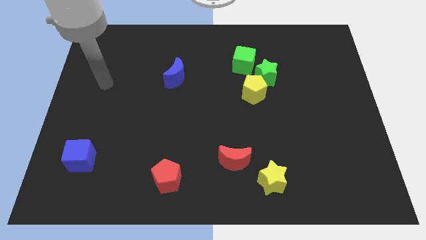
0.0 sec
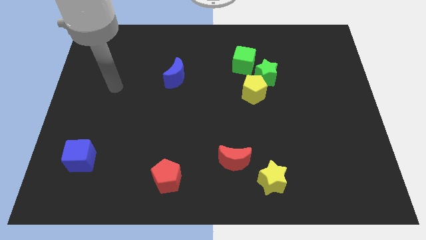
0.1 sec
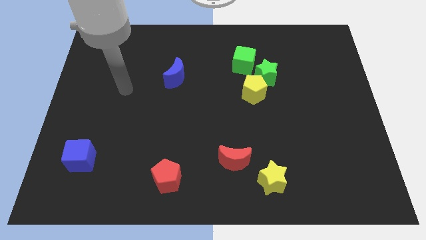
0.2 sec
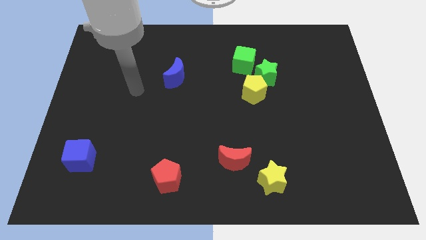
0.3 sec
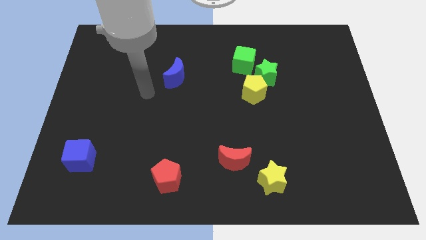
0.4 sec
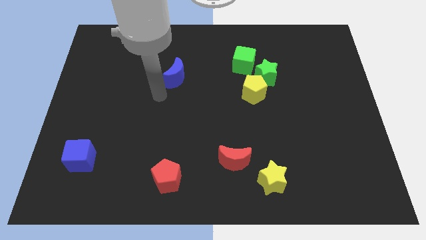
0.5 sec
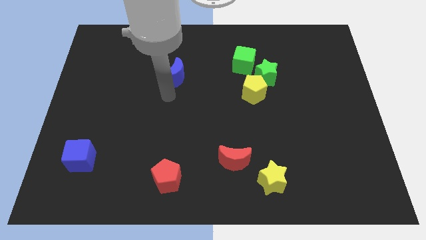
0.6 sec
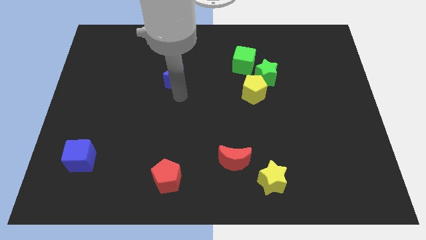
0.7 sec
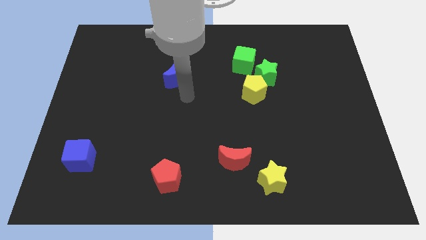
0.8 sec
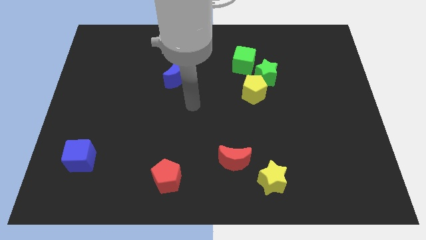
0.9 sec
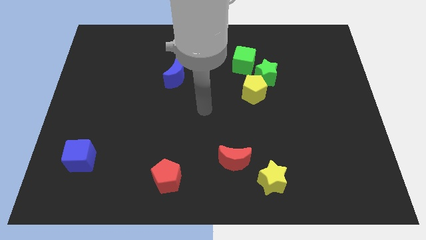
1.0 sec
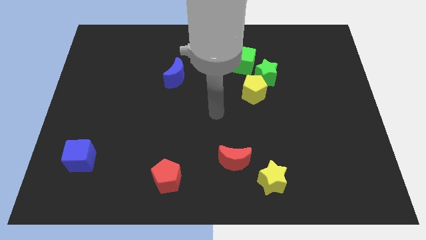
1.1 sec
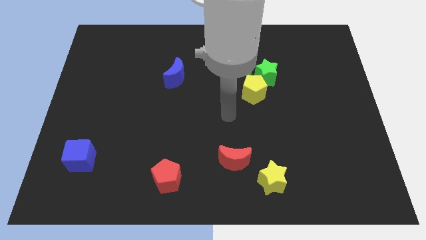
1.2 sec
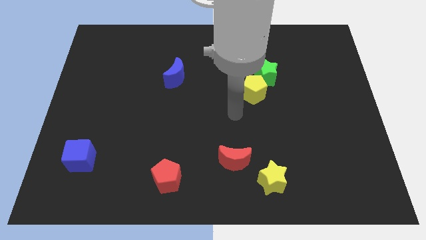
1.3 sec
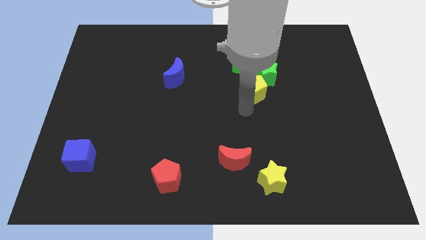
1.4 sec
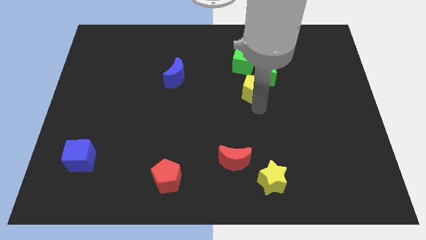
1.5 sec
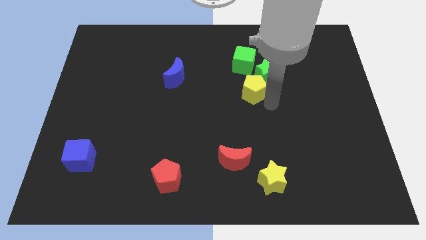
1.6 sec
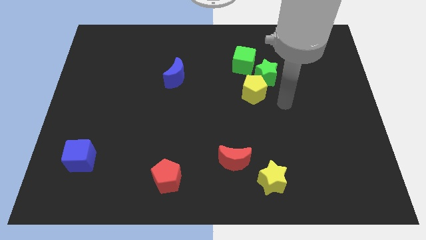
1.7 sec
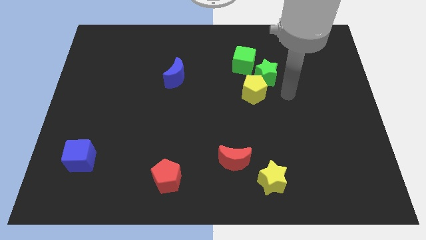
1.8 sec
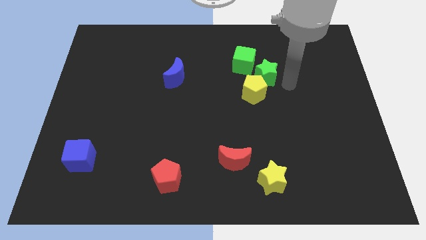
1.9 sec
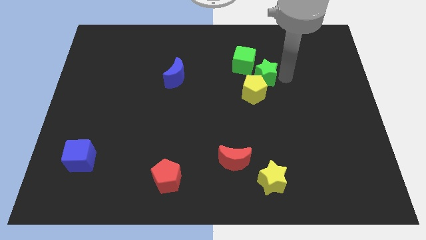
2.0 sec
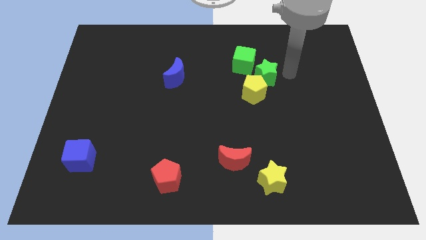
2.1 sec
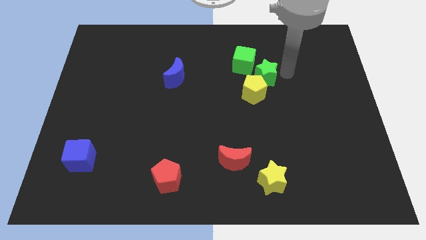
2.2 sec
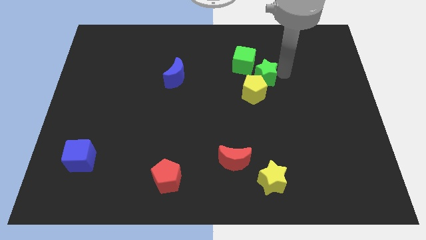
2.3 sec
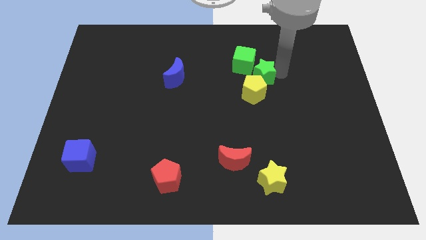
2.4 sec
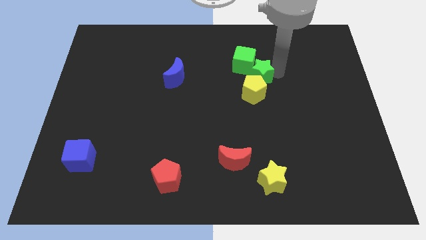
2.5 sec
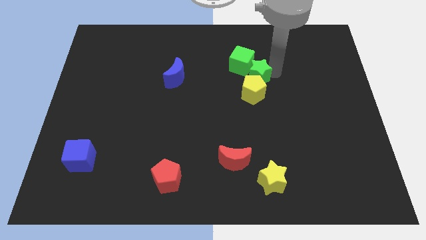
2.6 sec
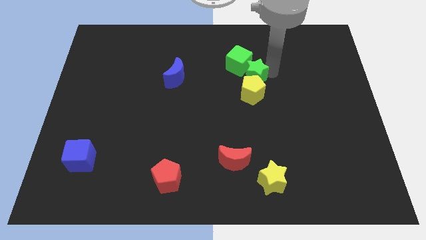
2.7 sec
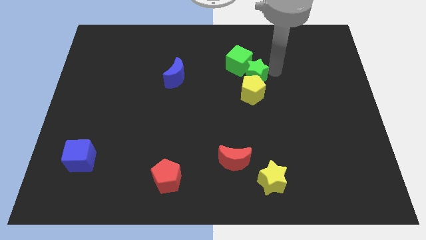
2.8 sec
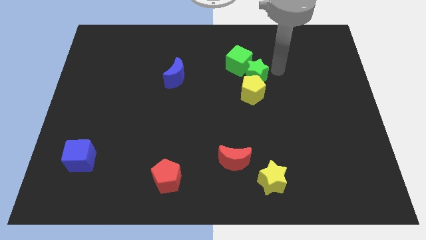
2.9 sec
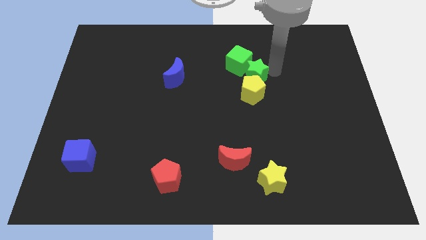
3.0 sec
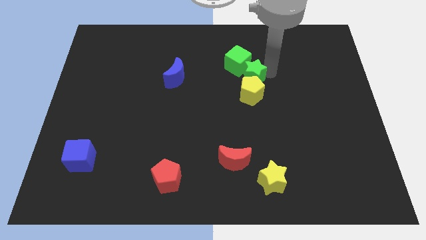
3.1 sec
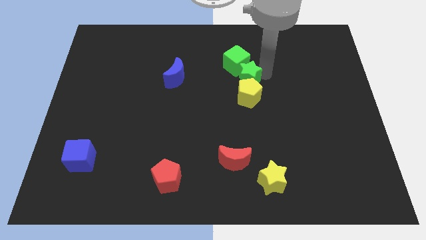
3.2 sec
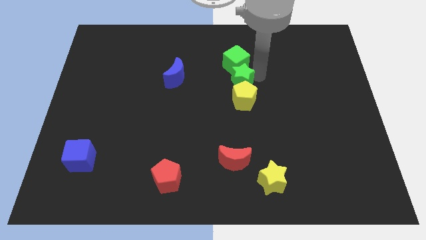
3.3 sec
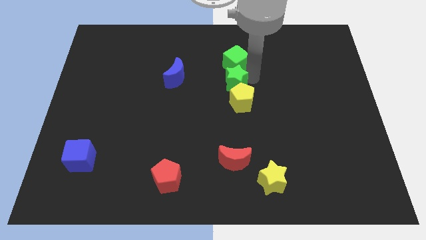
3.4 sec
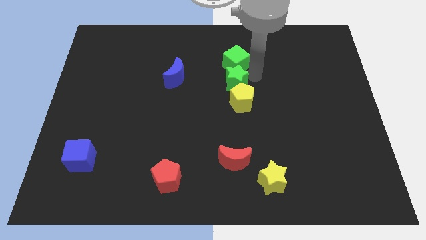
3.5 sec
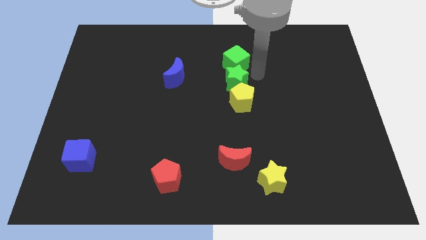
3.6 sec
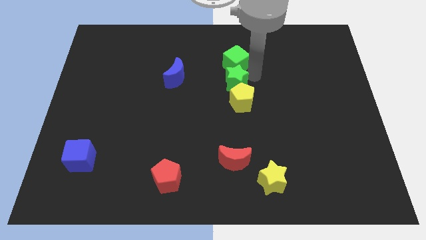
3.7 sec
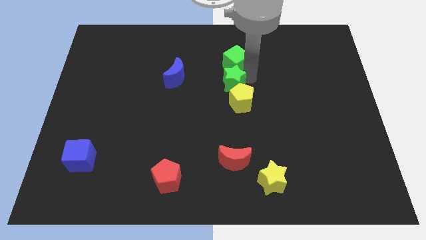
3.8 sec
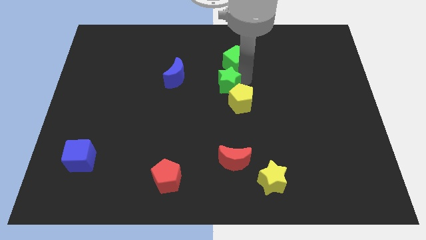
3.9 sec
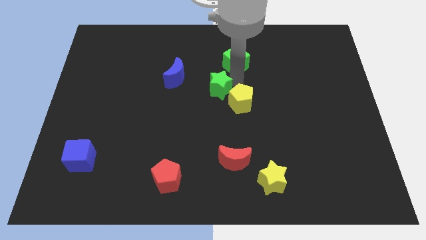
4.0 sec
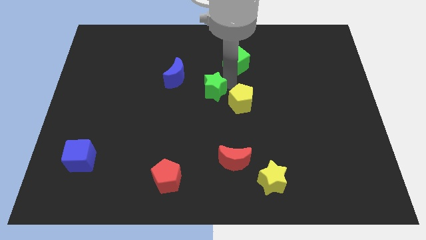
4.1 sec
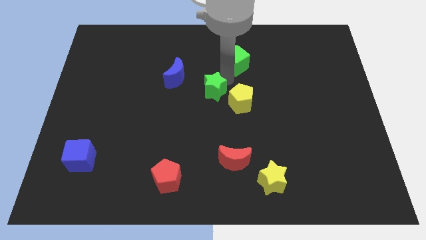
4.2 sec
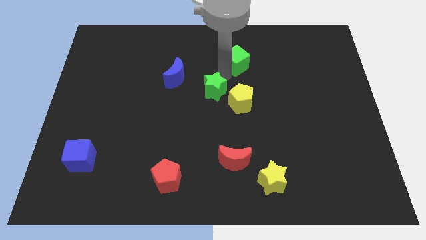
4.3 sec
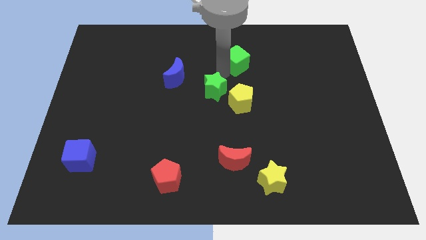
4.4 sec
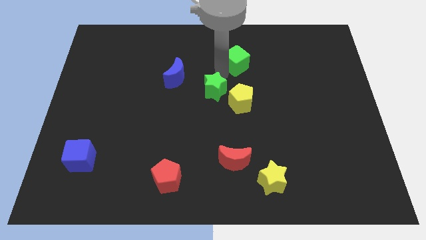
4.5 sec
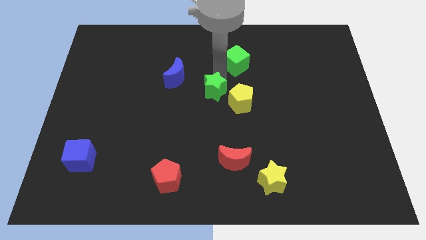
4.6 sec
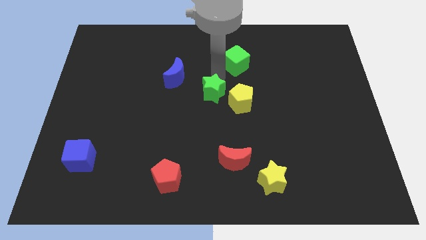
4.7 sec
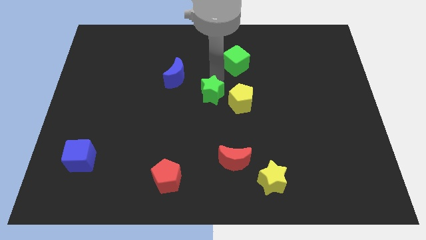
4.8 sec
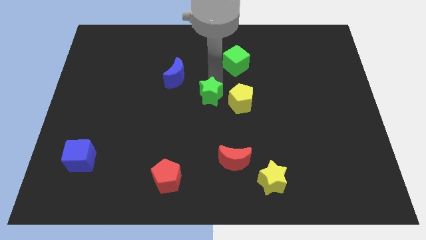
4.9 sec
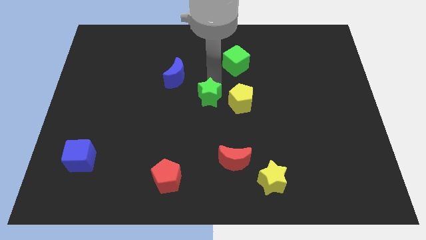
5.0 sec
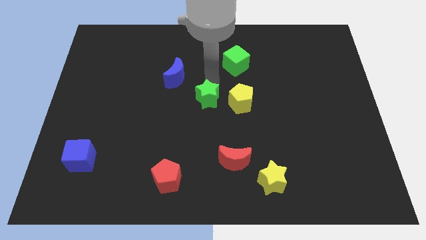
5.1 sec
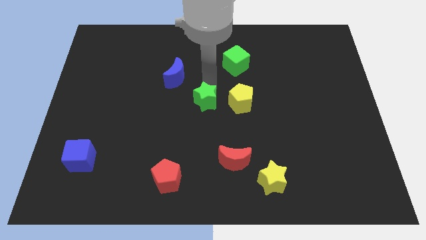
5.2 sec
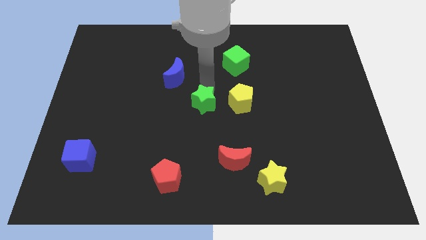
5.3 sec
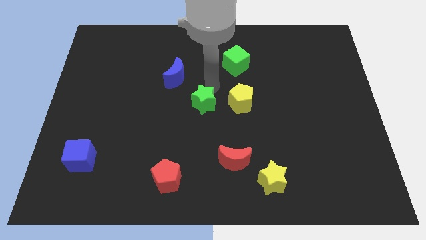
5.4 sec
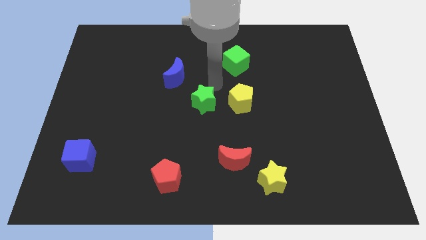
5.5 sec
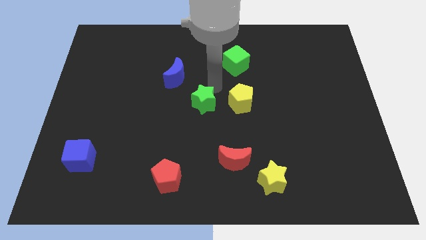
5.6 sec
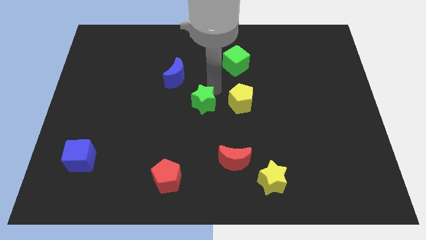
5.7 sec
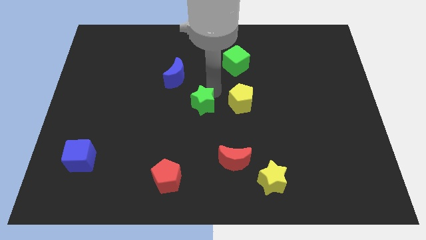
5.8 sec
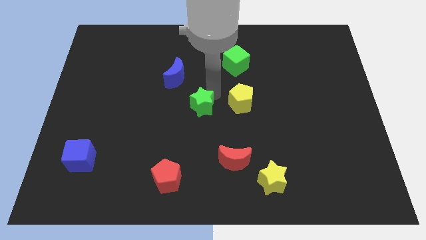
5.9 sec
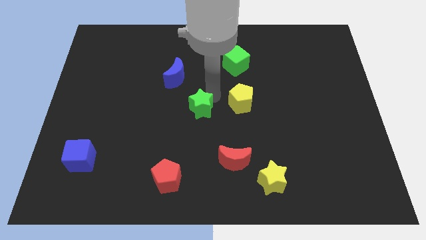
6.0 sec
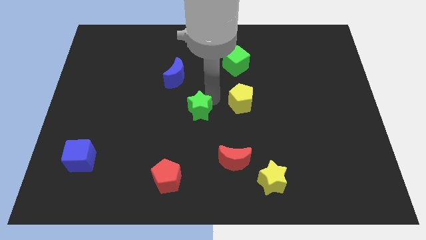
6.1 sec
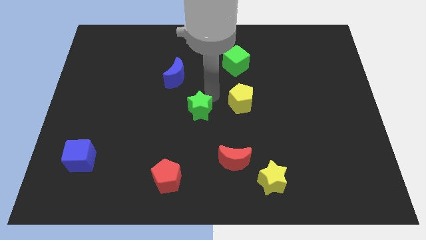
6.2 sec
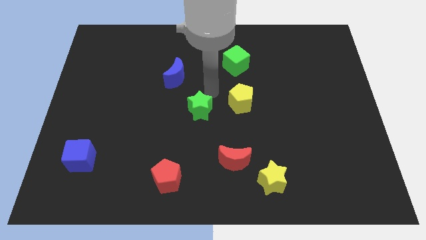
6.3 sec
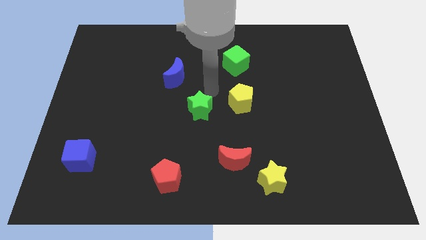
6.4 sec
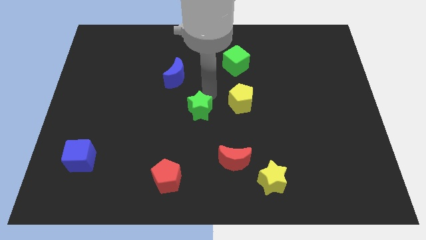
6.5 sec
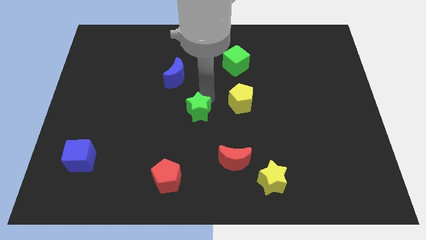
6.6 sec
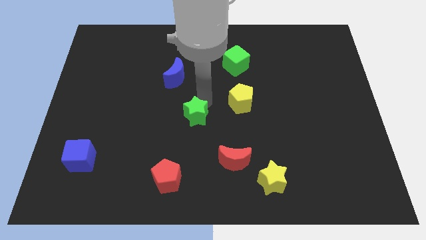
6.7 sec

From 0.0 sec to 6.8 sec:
push the green star down and to the left

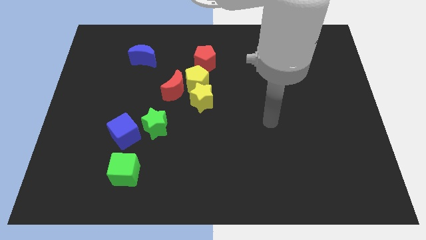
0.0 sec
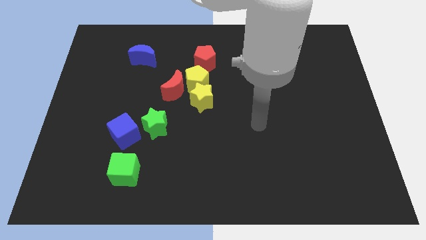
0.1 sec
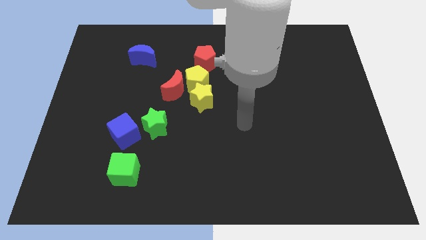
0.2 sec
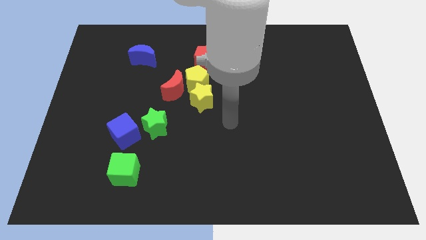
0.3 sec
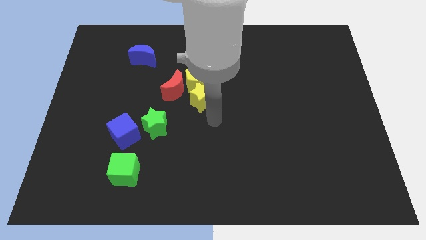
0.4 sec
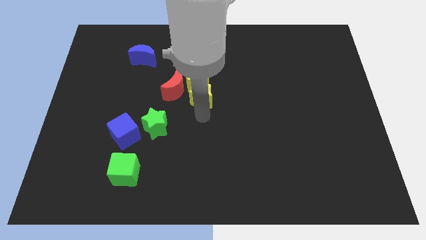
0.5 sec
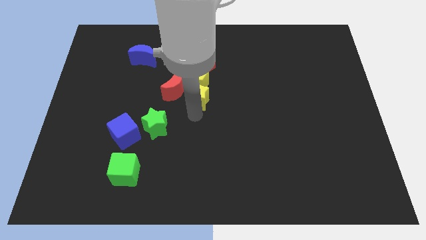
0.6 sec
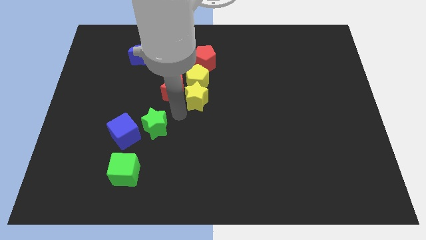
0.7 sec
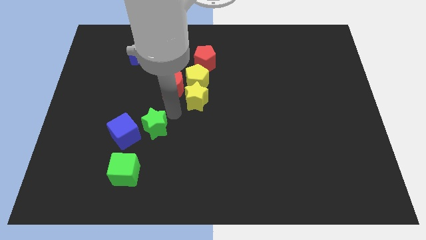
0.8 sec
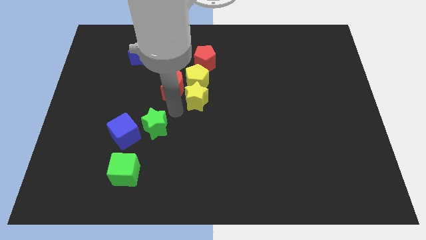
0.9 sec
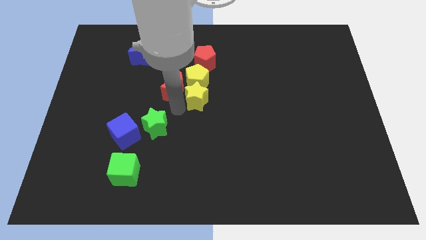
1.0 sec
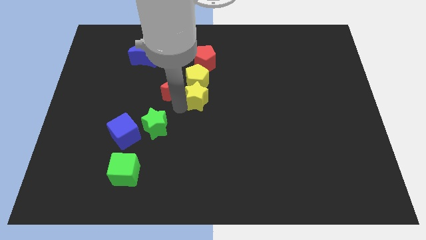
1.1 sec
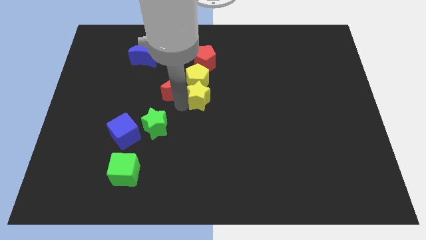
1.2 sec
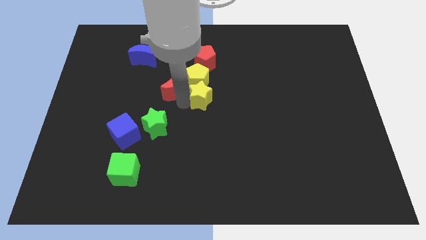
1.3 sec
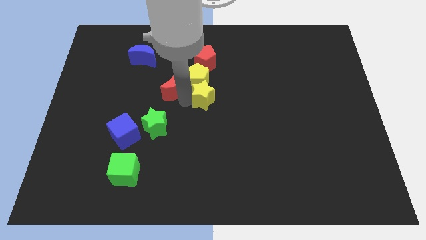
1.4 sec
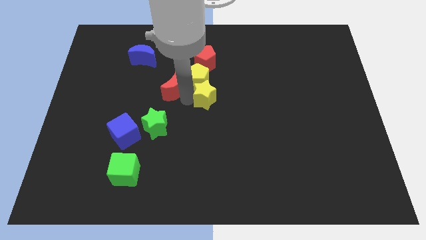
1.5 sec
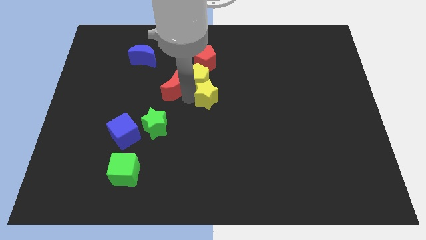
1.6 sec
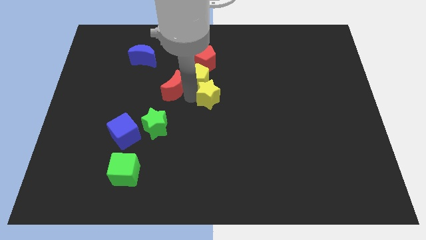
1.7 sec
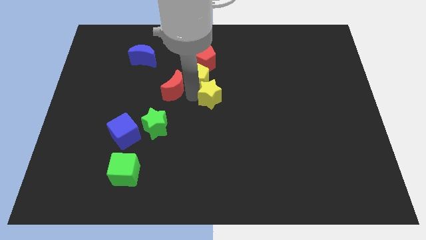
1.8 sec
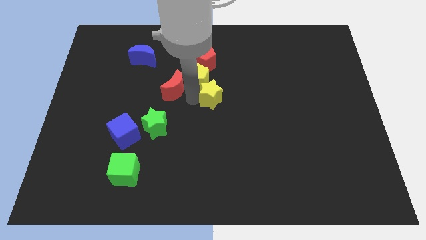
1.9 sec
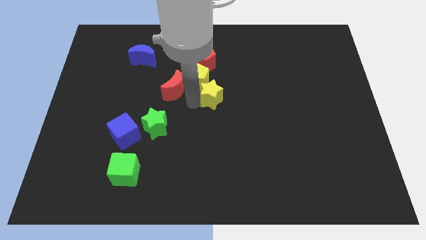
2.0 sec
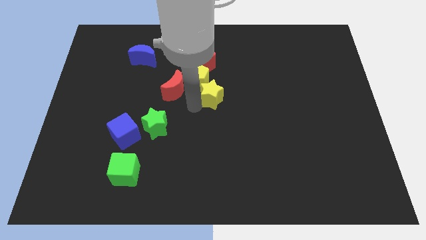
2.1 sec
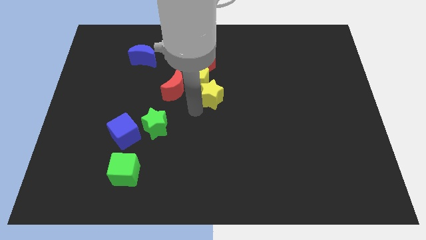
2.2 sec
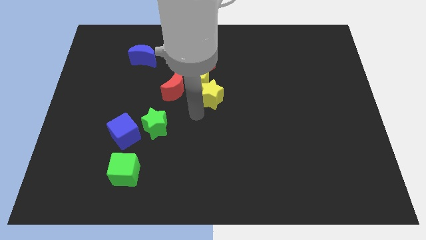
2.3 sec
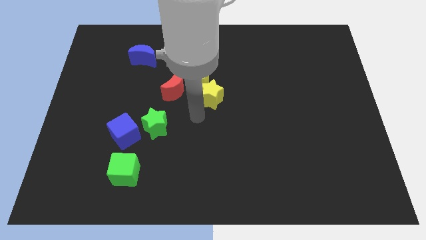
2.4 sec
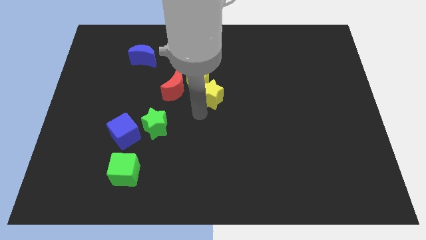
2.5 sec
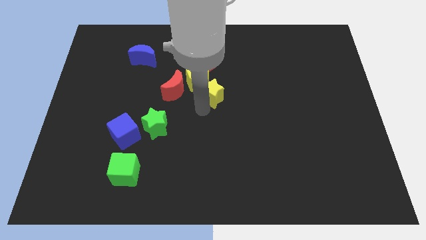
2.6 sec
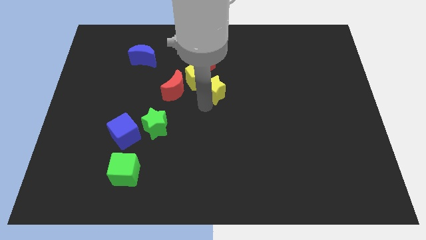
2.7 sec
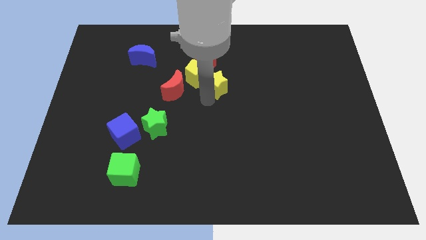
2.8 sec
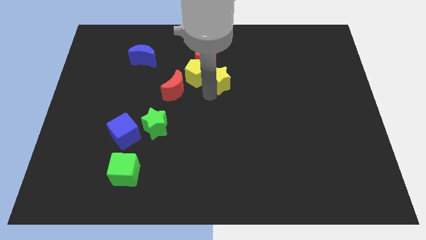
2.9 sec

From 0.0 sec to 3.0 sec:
push the yellow star upwards and then to the right a bit
